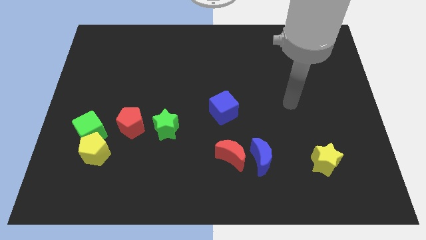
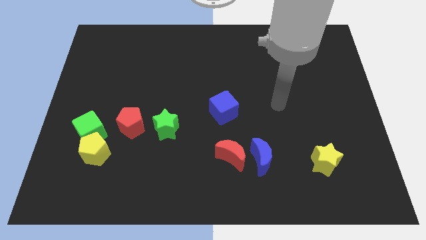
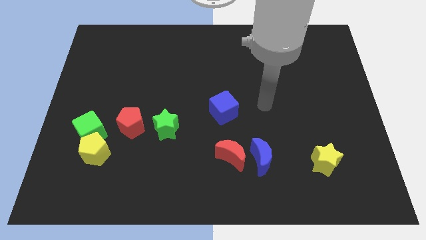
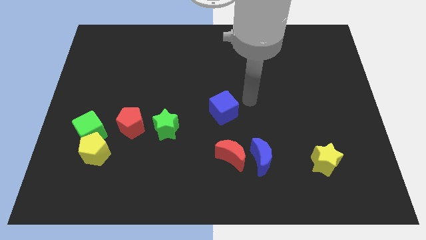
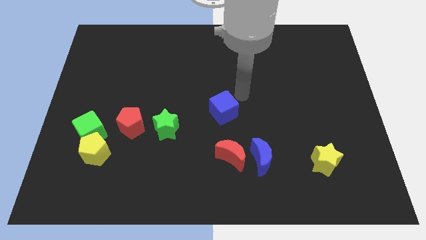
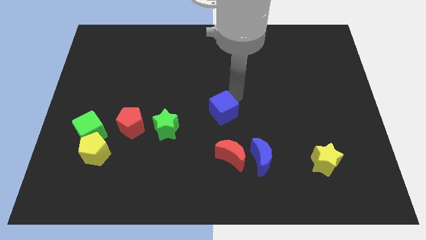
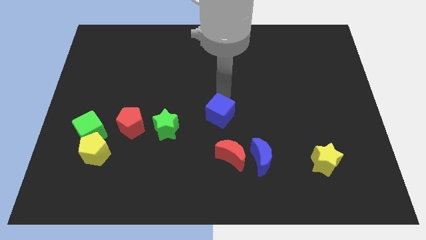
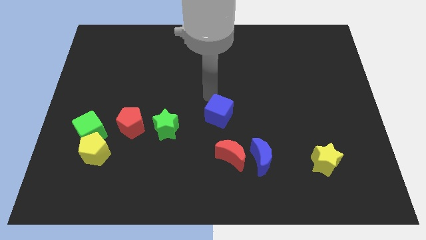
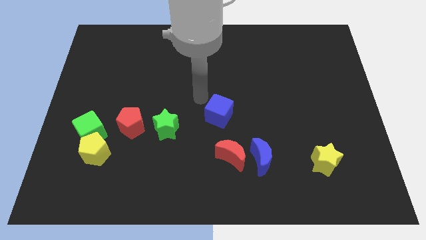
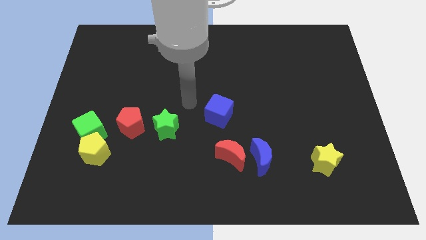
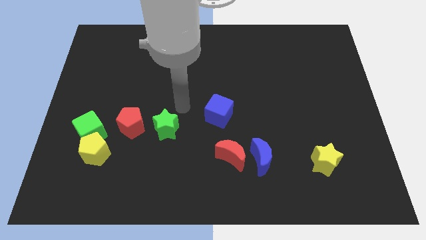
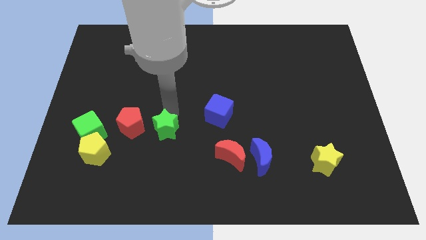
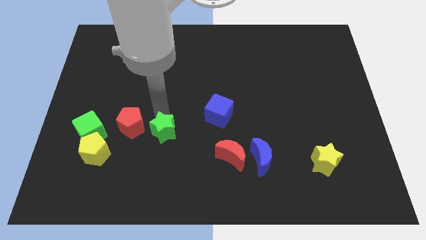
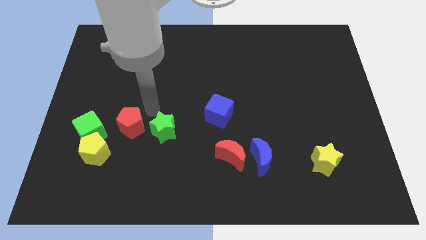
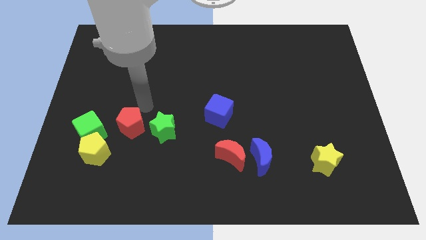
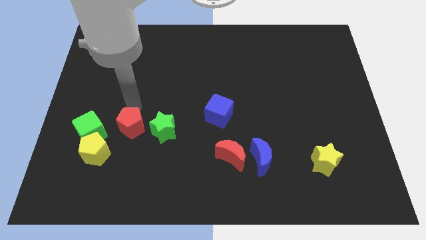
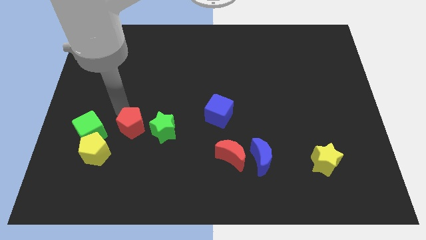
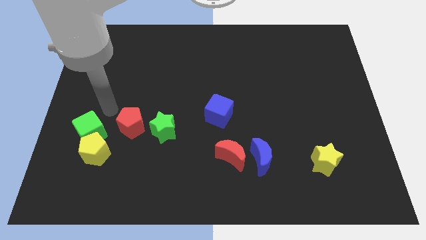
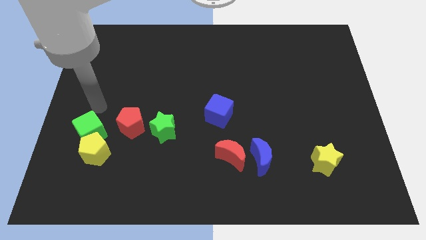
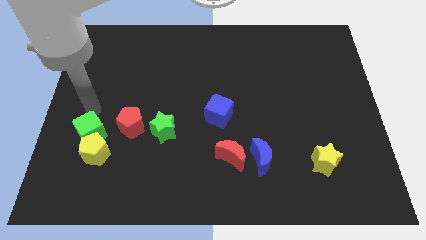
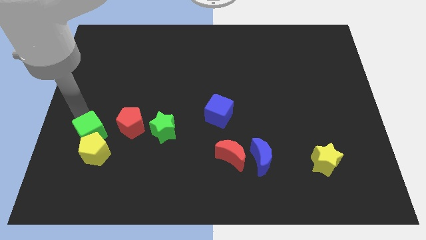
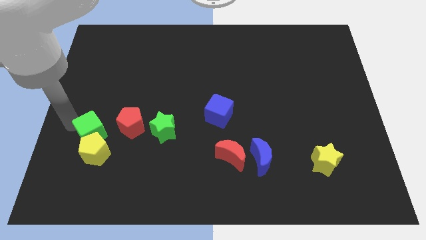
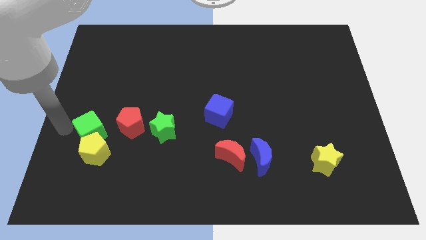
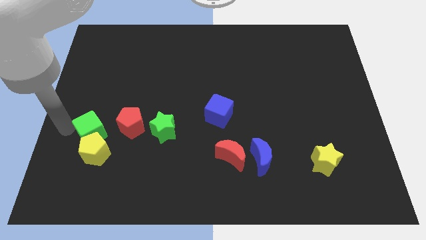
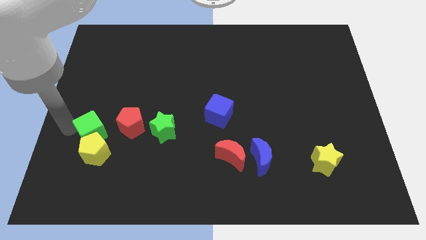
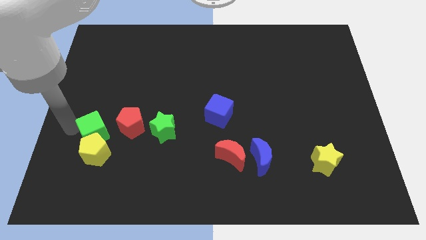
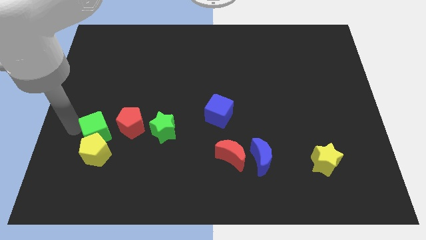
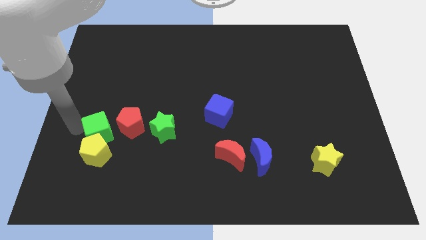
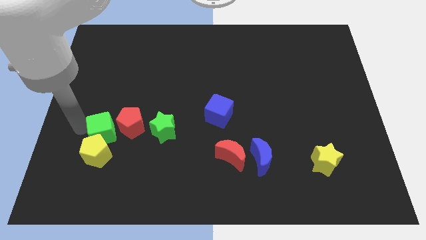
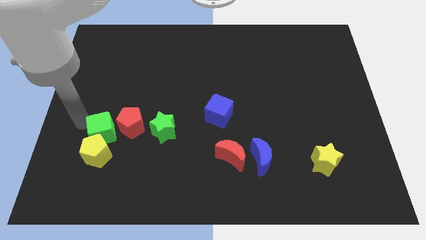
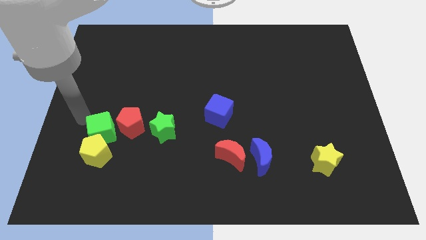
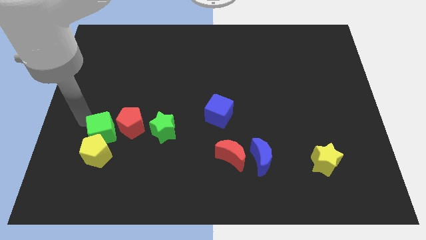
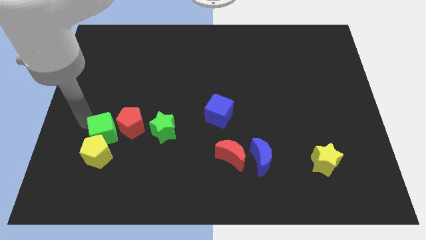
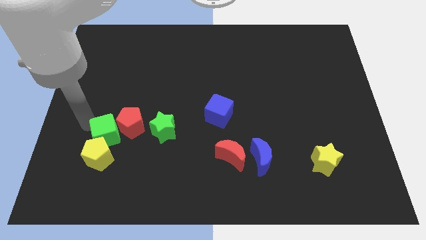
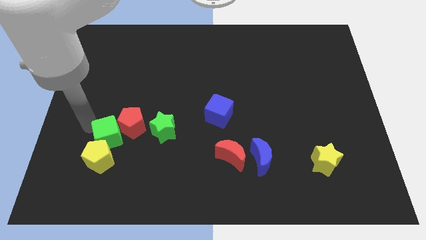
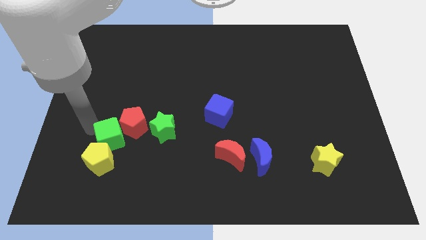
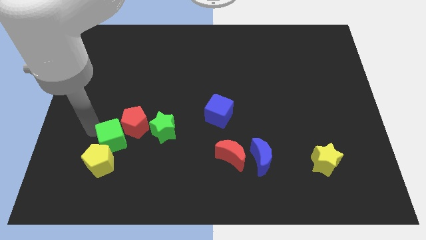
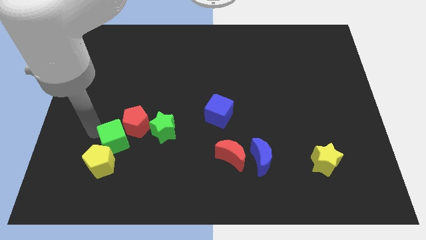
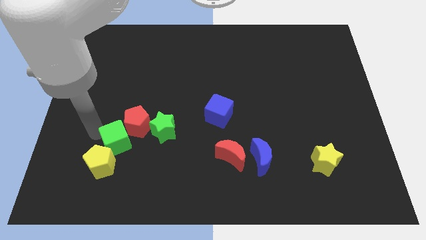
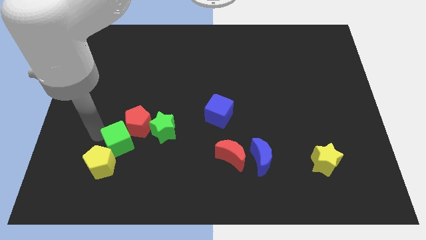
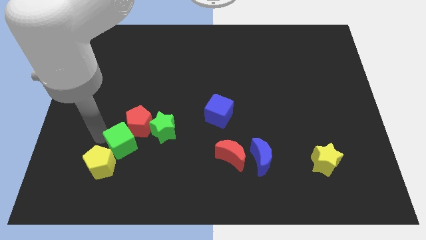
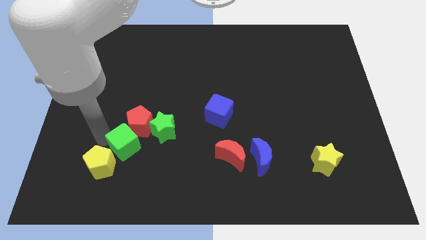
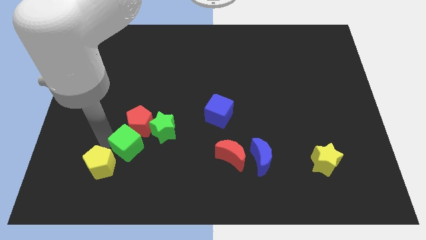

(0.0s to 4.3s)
slide the green cube just right of the yellow pentagon

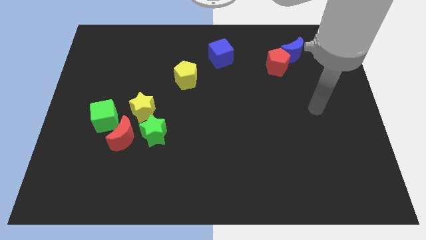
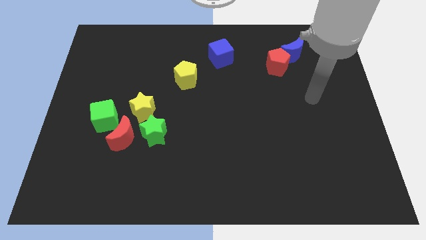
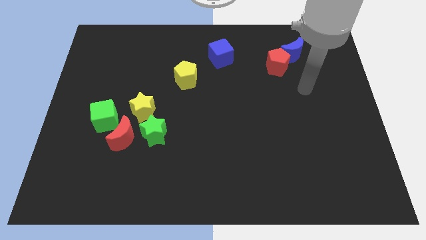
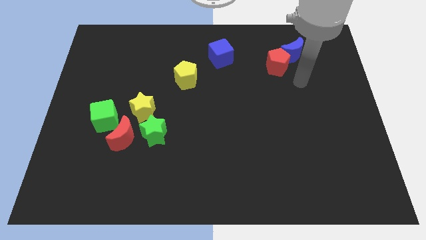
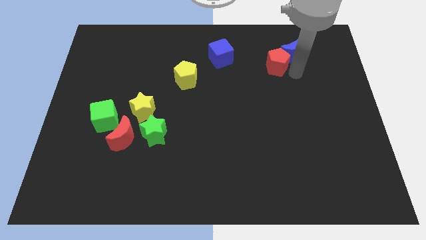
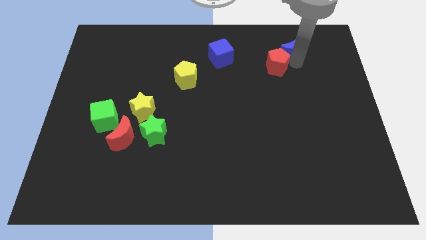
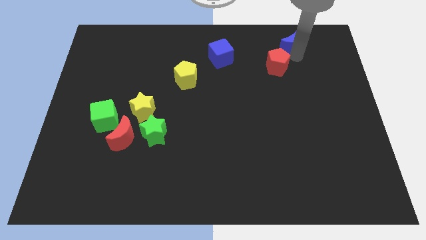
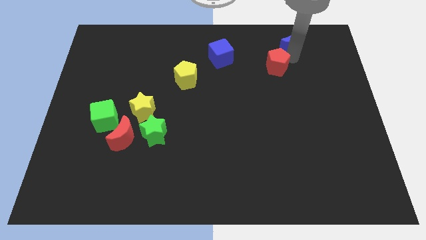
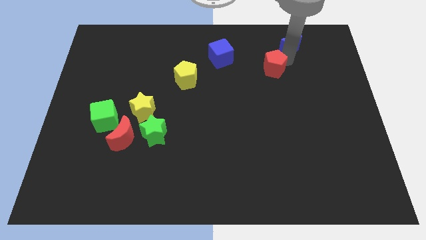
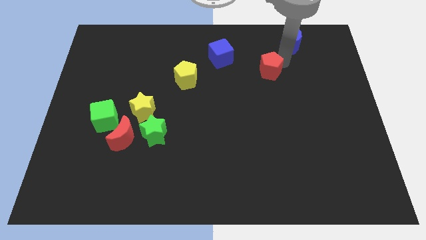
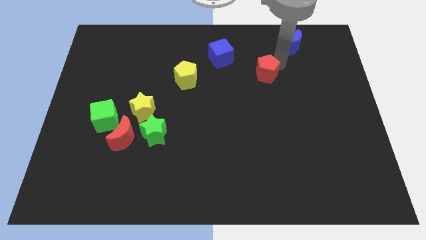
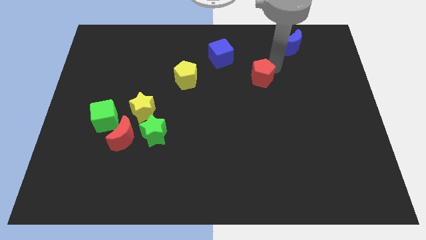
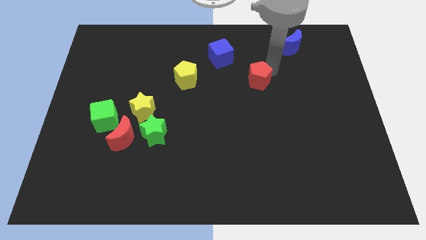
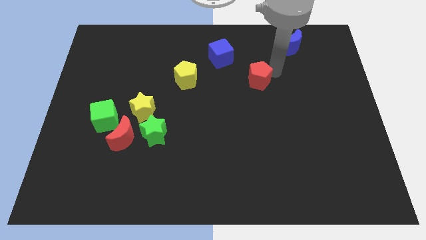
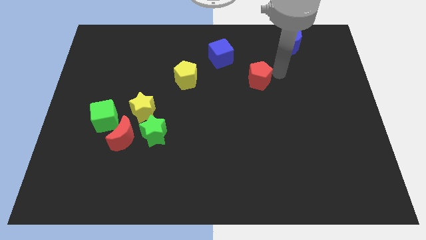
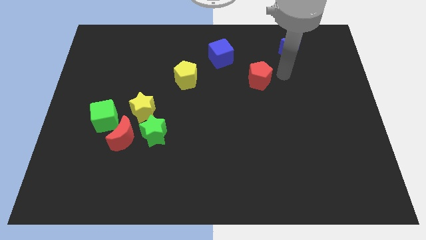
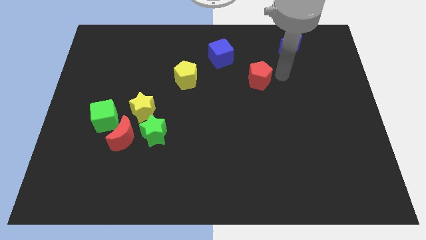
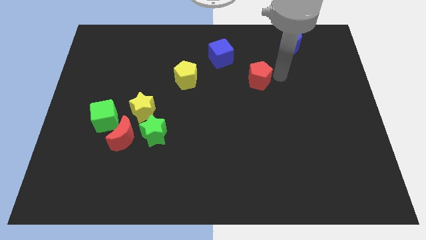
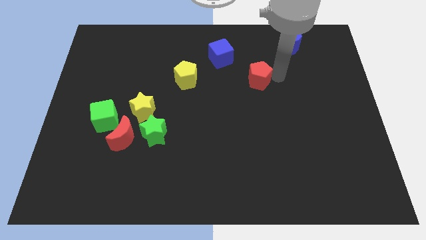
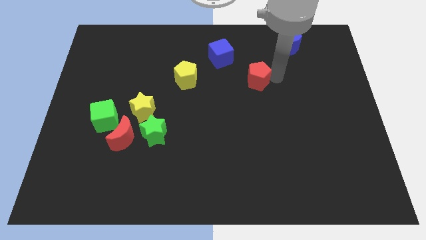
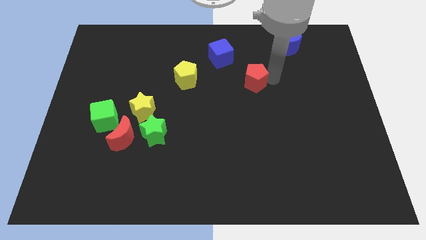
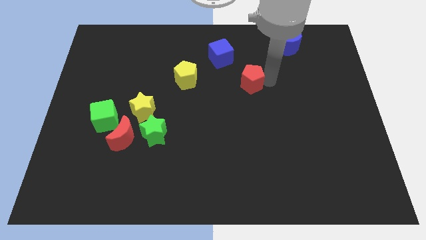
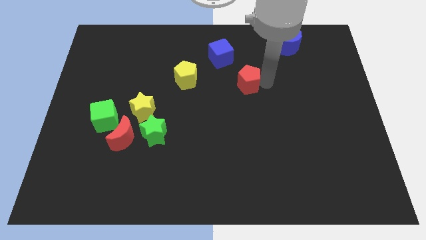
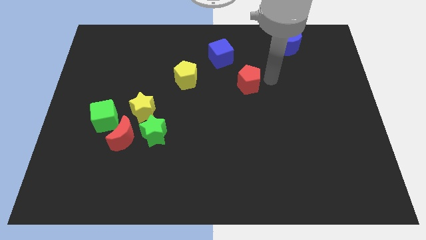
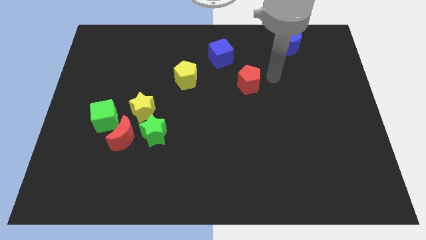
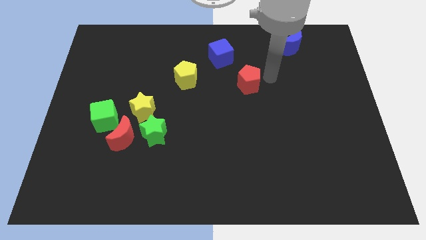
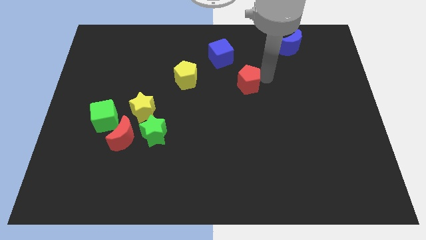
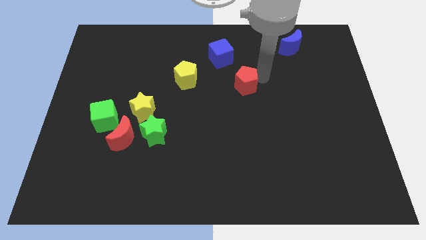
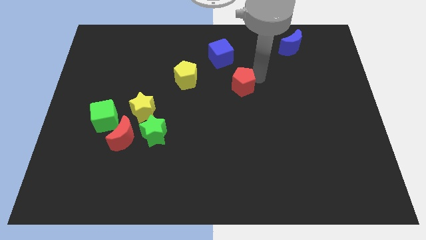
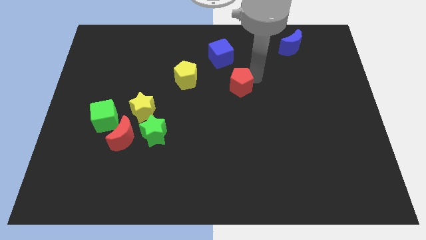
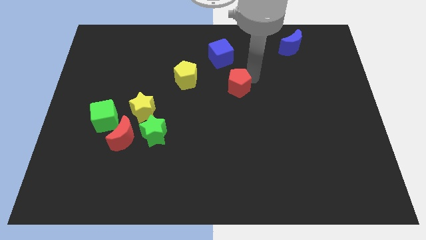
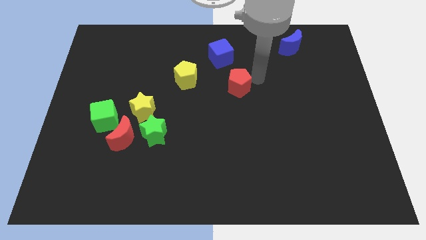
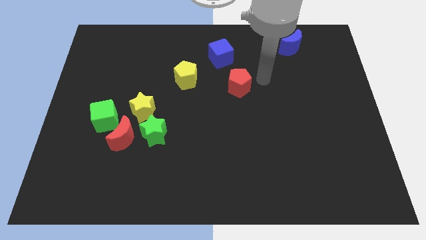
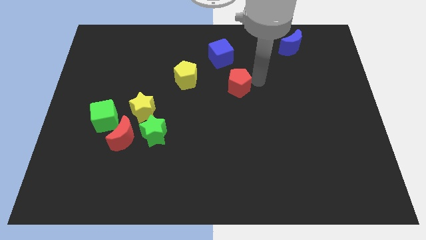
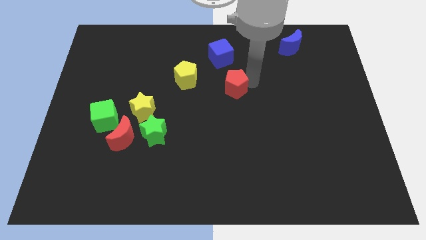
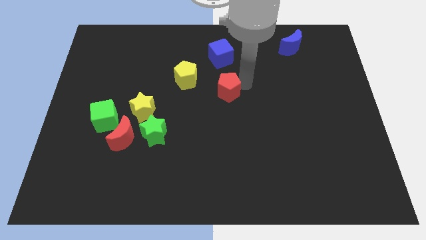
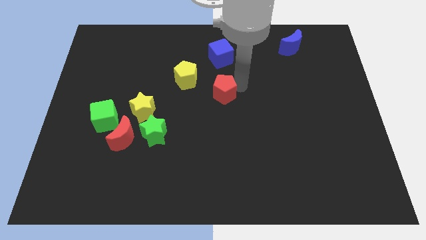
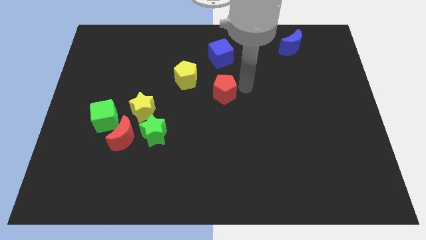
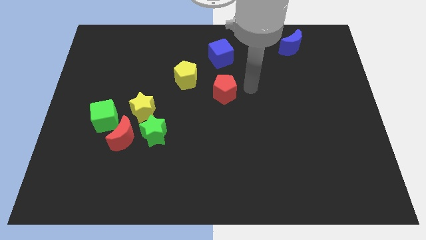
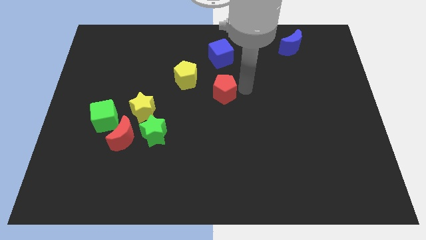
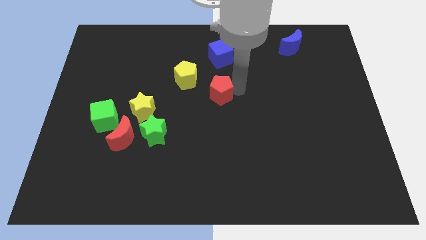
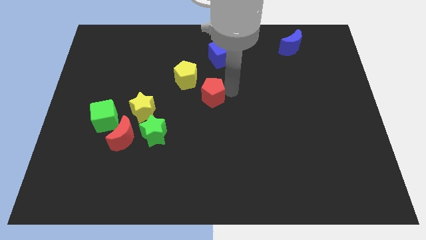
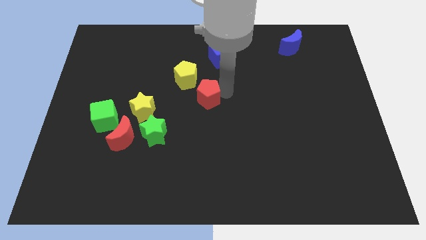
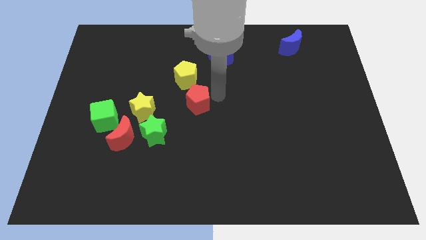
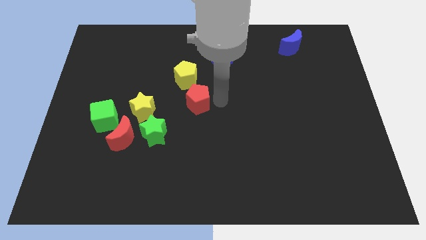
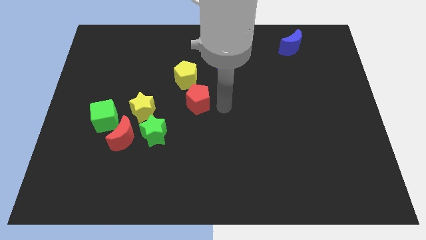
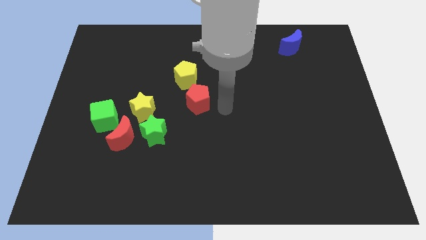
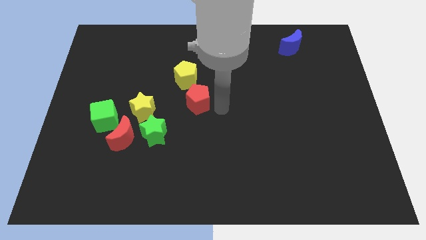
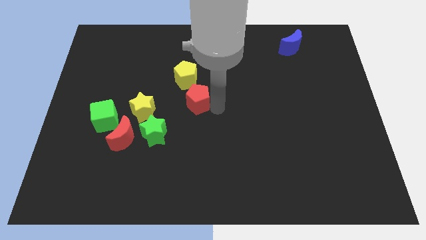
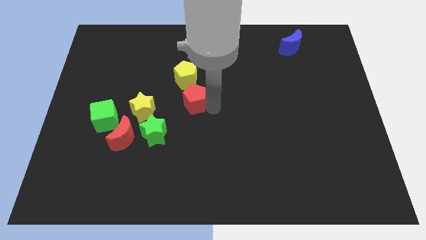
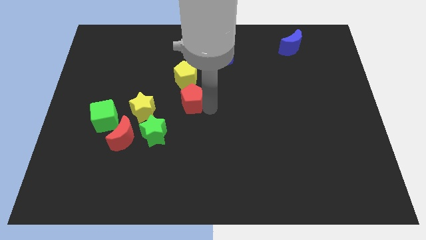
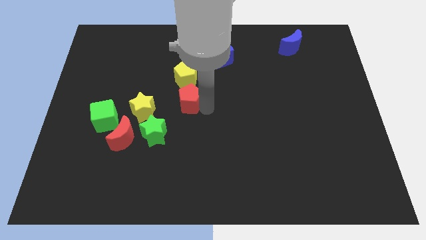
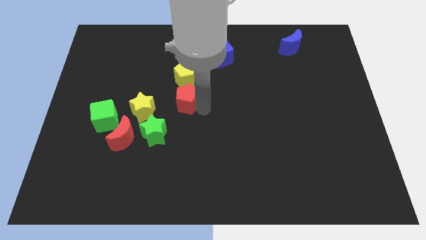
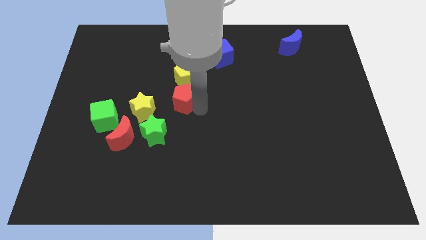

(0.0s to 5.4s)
push the red pentagon diagonally up and to the right of the yellow star
